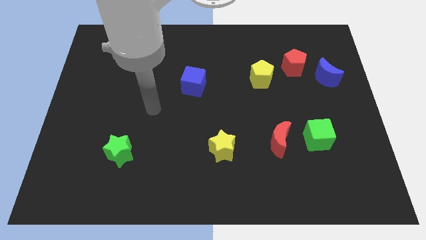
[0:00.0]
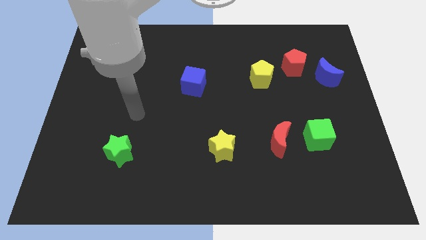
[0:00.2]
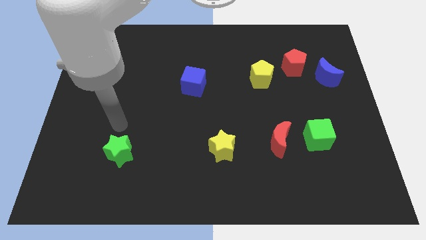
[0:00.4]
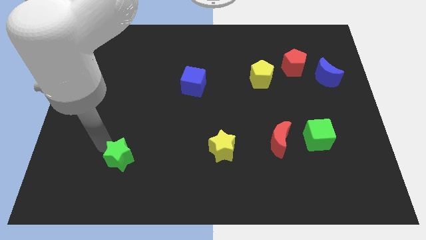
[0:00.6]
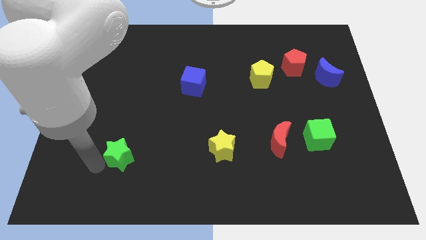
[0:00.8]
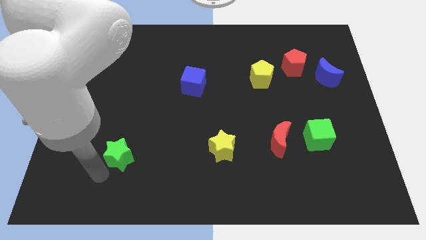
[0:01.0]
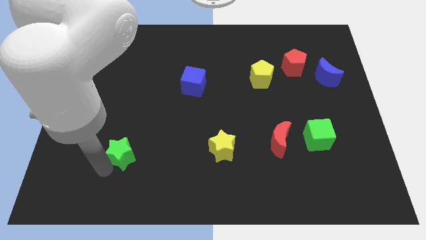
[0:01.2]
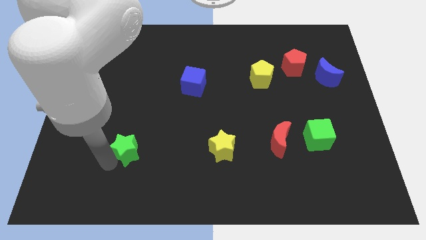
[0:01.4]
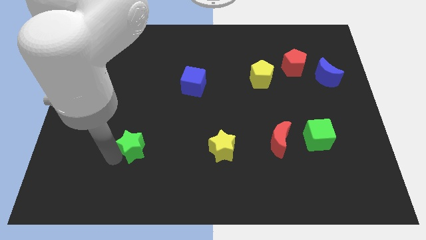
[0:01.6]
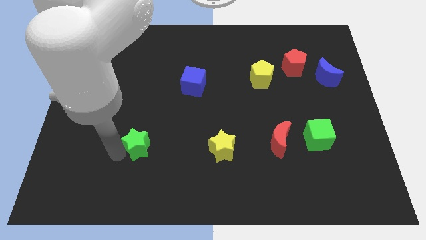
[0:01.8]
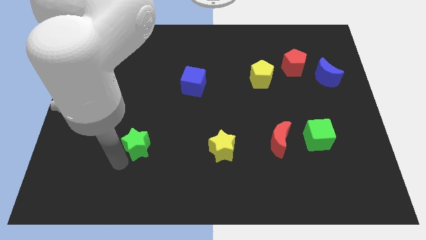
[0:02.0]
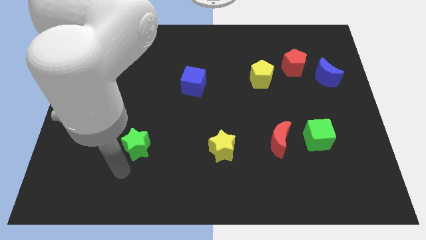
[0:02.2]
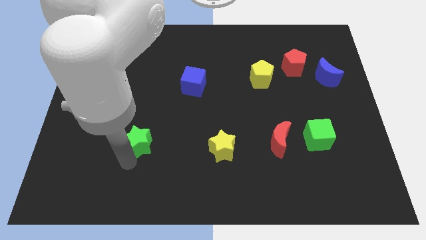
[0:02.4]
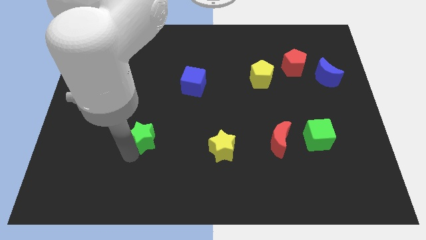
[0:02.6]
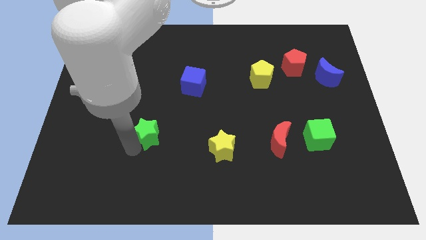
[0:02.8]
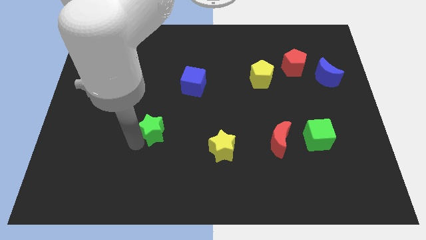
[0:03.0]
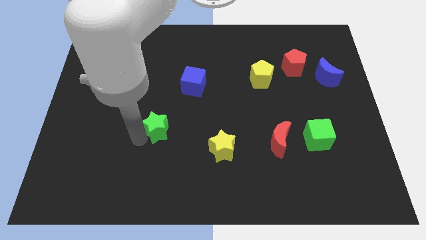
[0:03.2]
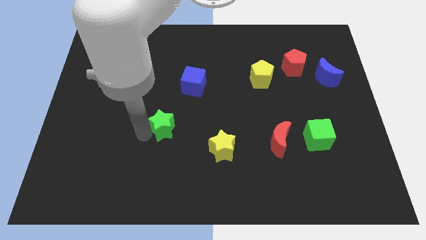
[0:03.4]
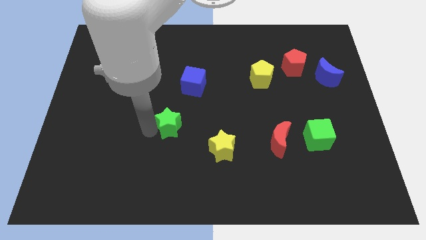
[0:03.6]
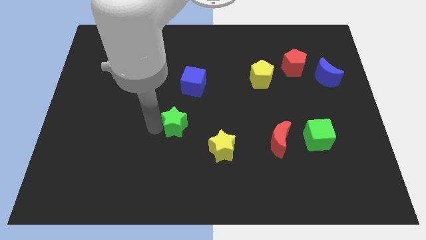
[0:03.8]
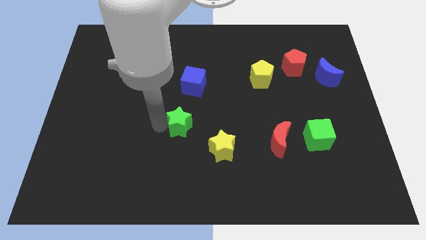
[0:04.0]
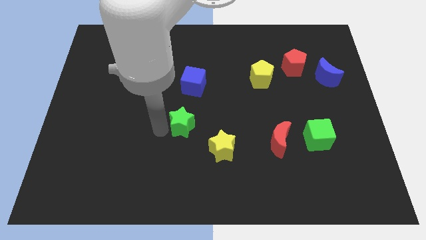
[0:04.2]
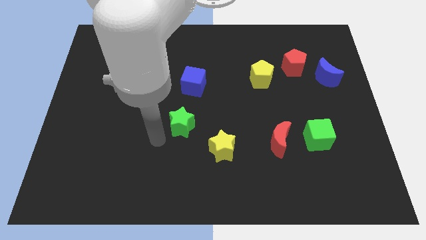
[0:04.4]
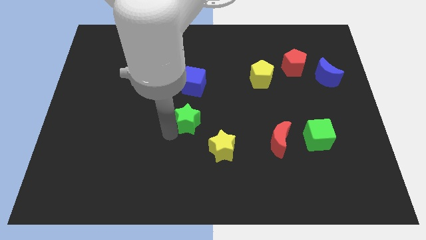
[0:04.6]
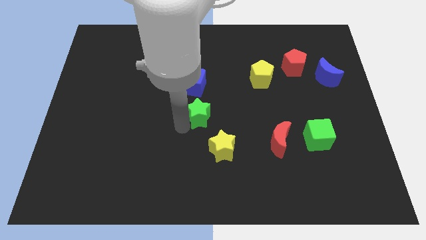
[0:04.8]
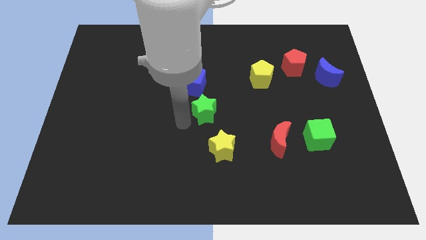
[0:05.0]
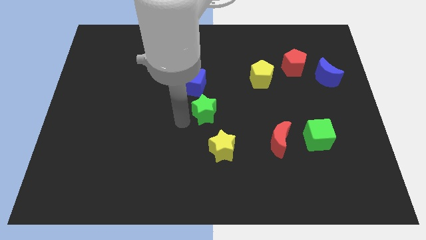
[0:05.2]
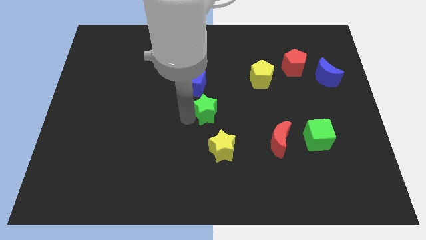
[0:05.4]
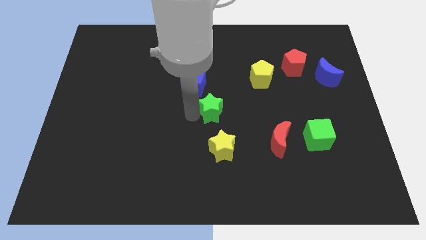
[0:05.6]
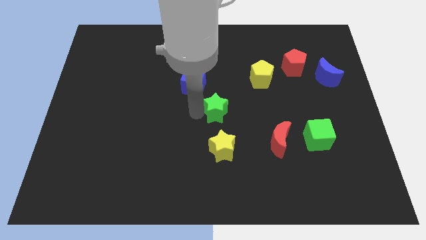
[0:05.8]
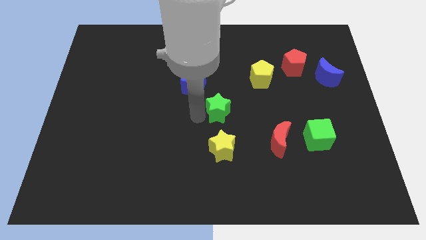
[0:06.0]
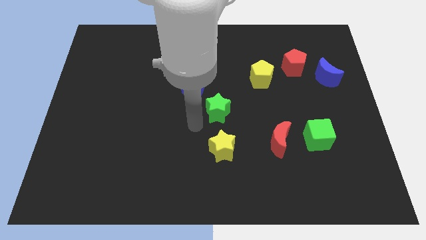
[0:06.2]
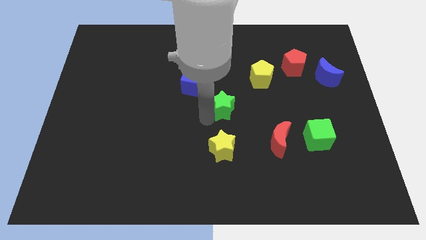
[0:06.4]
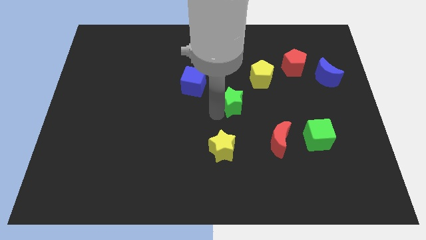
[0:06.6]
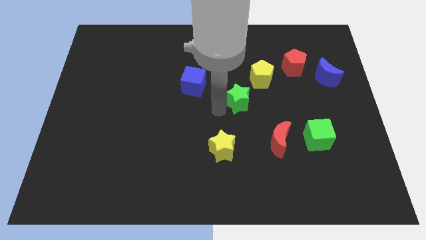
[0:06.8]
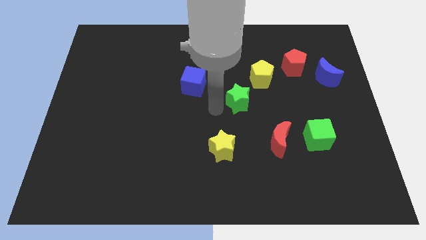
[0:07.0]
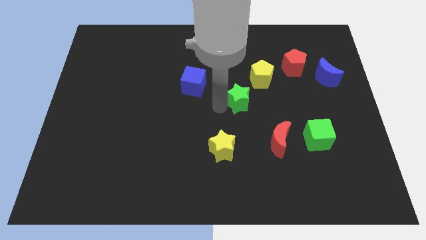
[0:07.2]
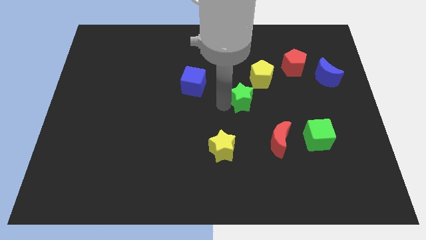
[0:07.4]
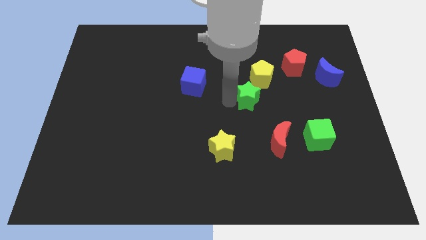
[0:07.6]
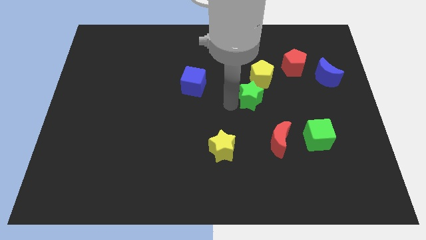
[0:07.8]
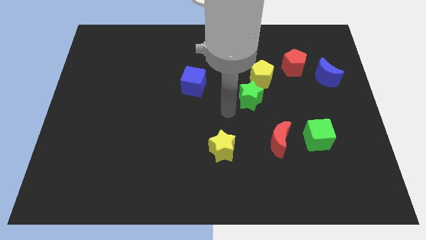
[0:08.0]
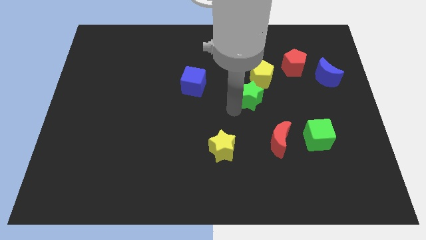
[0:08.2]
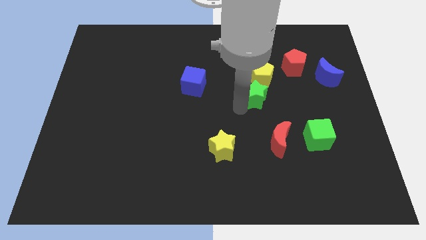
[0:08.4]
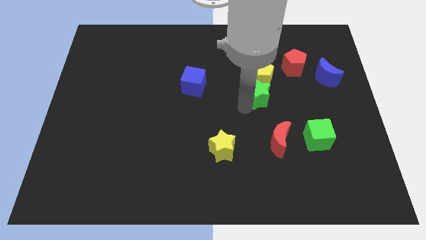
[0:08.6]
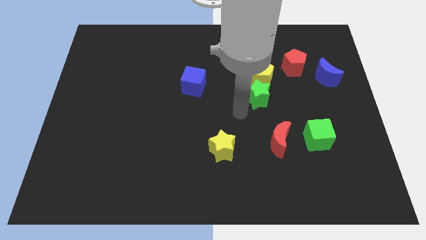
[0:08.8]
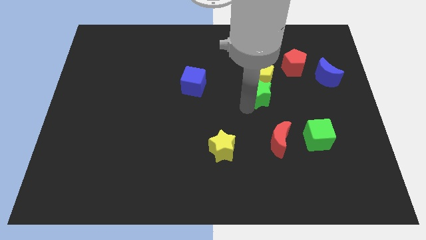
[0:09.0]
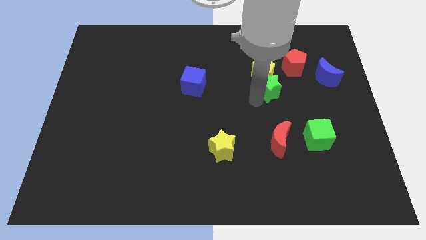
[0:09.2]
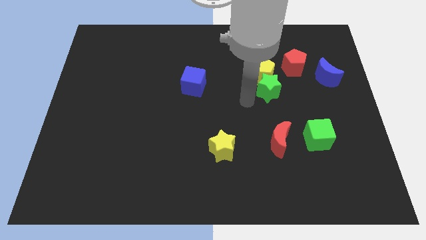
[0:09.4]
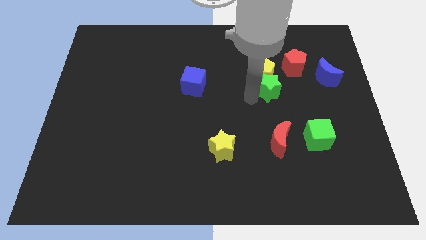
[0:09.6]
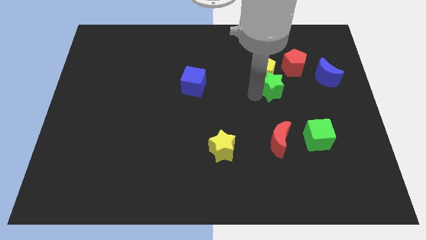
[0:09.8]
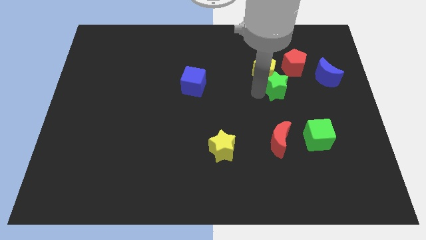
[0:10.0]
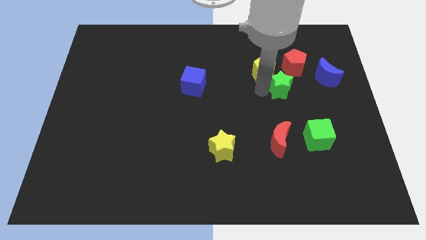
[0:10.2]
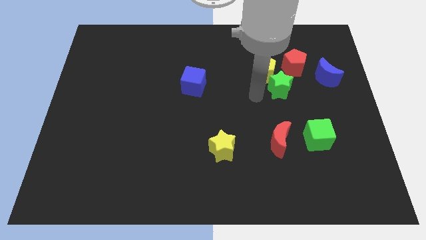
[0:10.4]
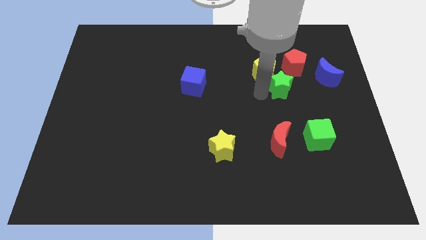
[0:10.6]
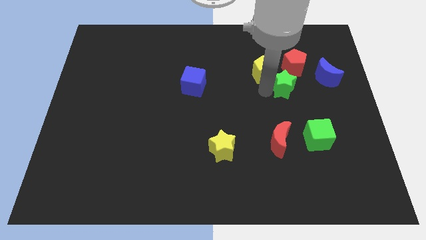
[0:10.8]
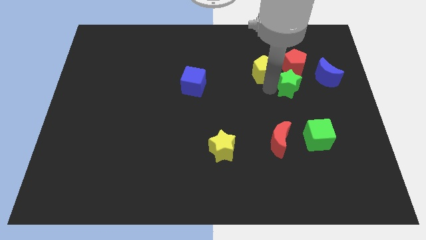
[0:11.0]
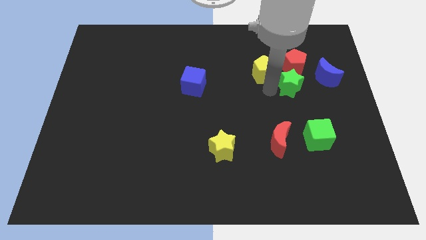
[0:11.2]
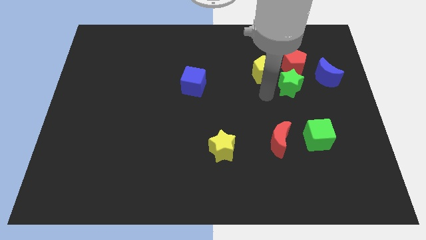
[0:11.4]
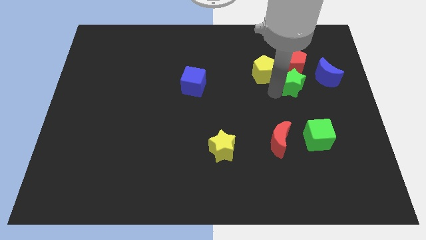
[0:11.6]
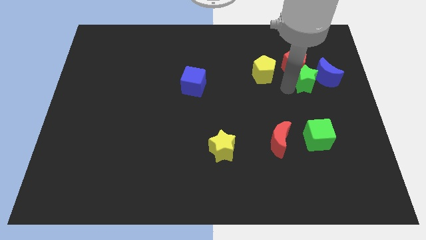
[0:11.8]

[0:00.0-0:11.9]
slide the green star close to the blue moon

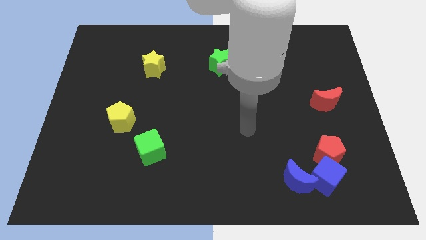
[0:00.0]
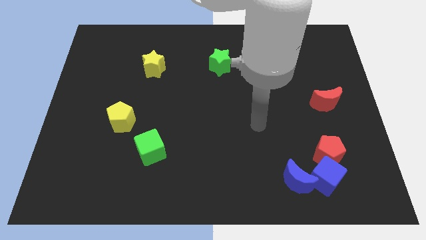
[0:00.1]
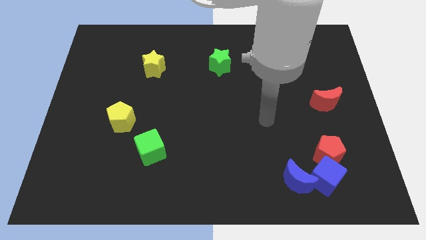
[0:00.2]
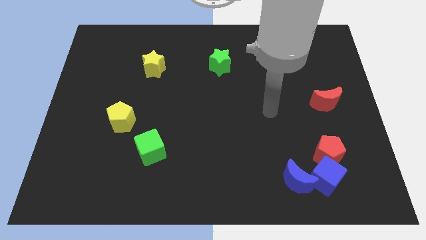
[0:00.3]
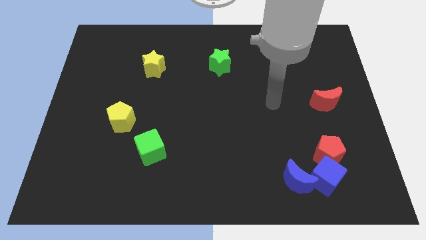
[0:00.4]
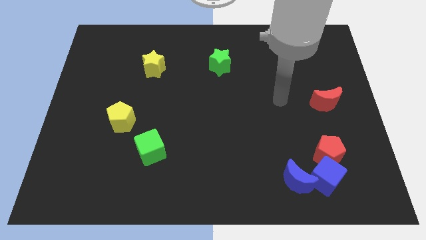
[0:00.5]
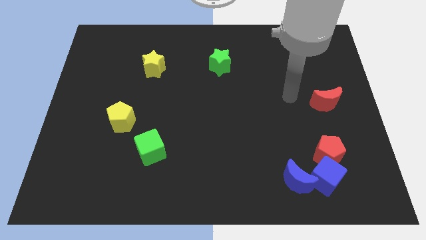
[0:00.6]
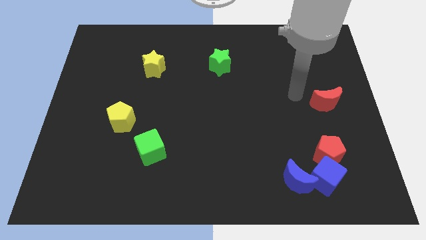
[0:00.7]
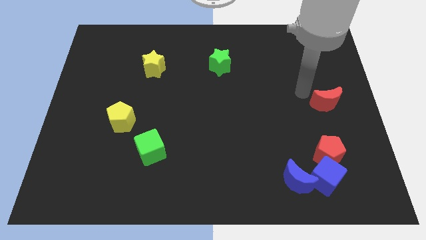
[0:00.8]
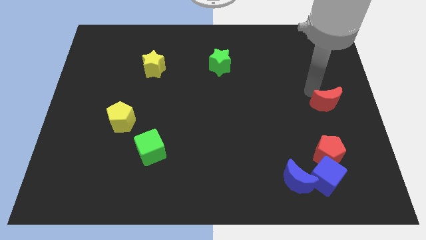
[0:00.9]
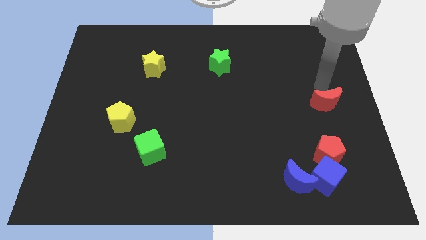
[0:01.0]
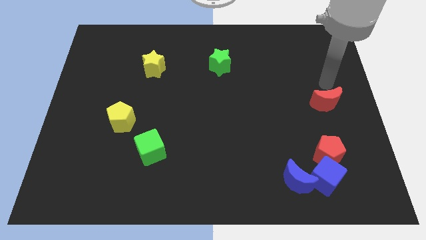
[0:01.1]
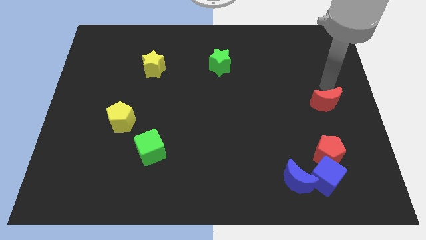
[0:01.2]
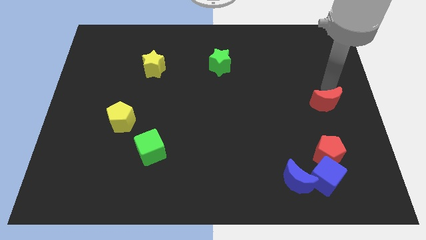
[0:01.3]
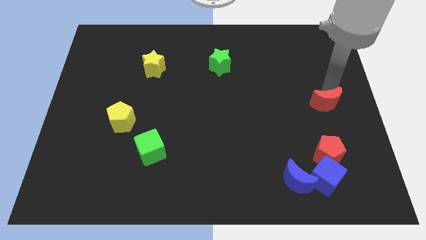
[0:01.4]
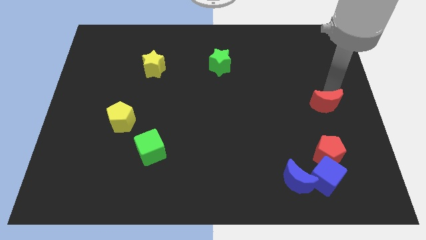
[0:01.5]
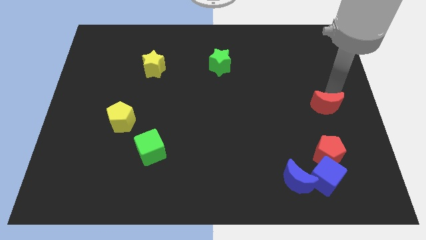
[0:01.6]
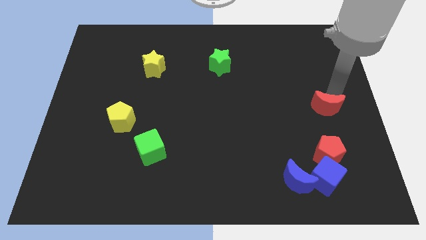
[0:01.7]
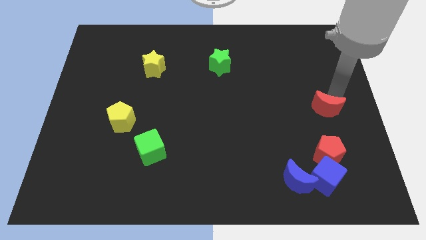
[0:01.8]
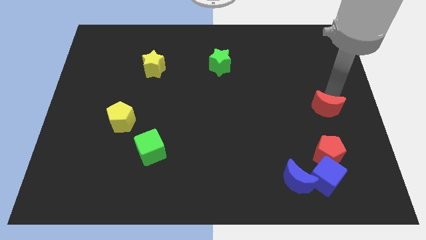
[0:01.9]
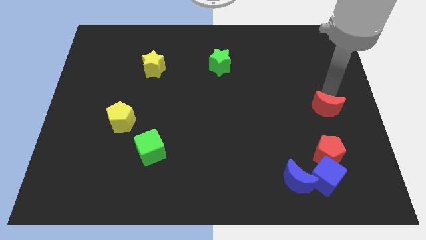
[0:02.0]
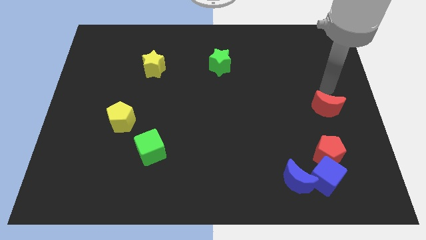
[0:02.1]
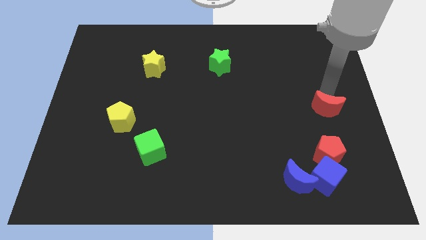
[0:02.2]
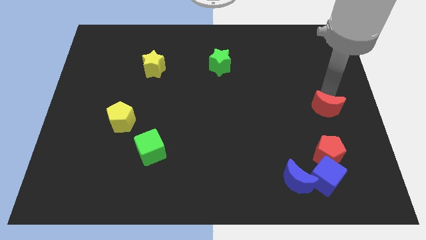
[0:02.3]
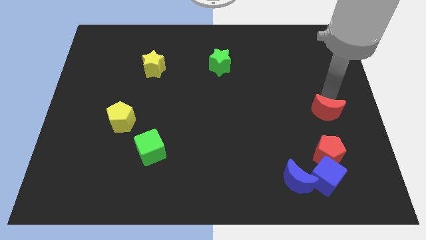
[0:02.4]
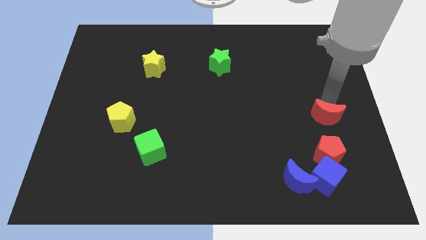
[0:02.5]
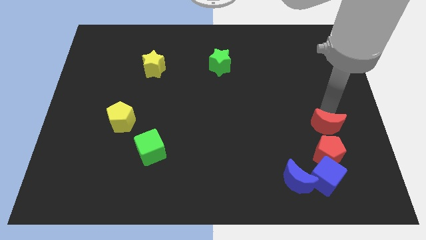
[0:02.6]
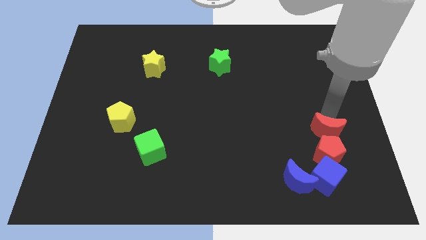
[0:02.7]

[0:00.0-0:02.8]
move the red moon towards the red pentagon
